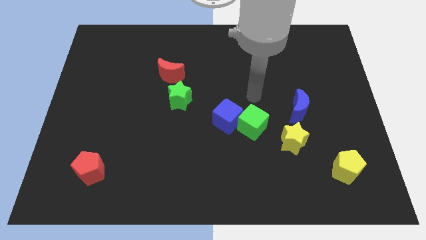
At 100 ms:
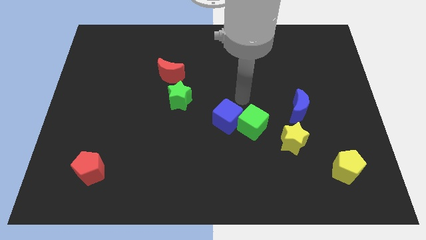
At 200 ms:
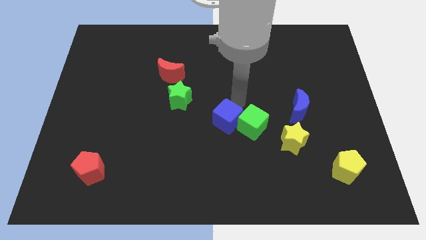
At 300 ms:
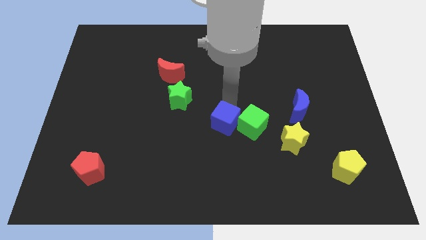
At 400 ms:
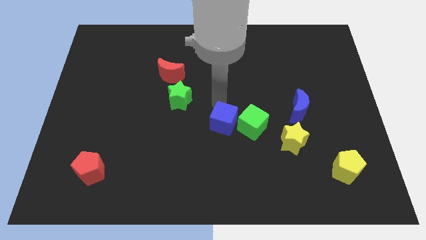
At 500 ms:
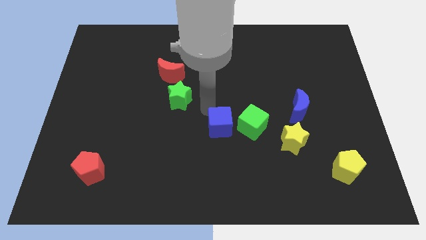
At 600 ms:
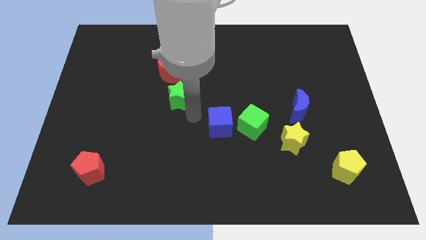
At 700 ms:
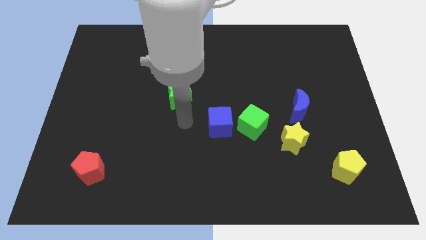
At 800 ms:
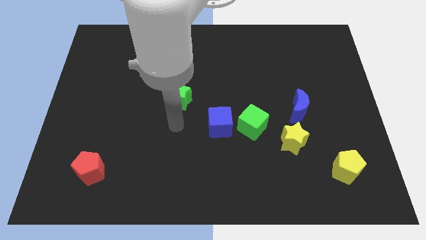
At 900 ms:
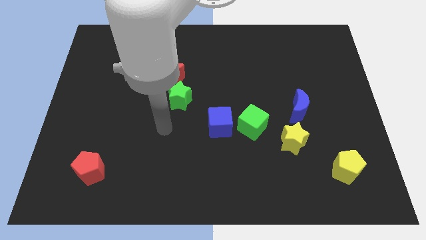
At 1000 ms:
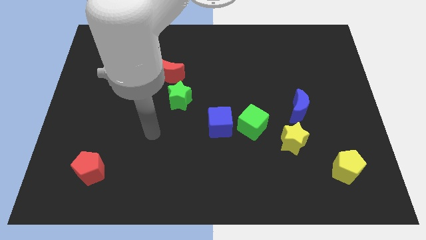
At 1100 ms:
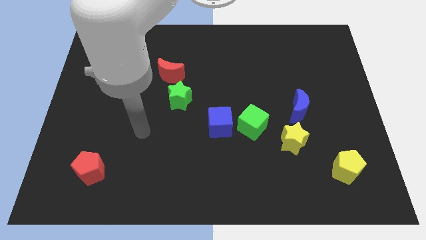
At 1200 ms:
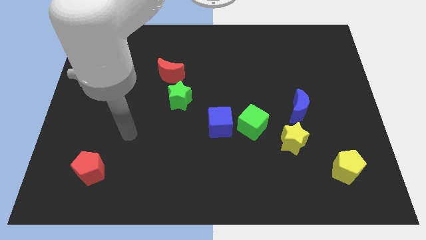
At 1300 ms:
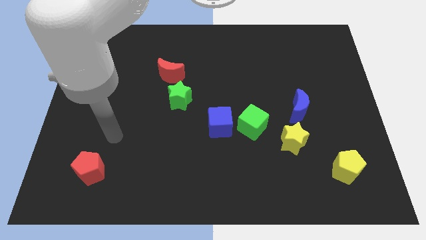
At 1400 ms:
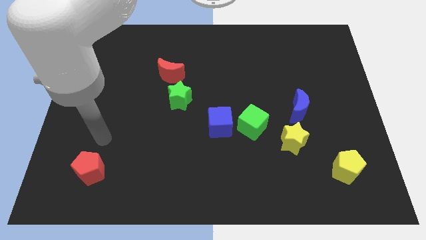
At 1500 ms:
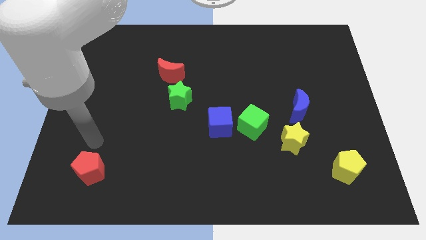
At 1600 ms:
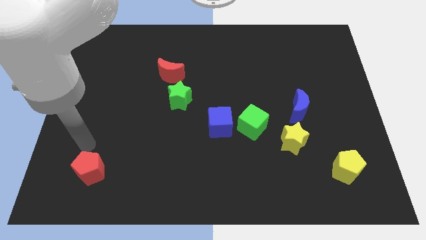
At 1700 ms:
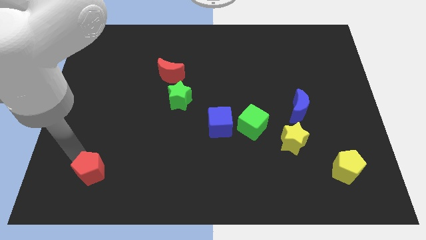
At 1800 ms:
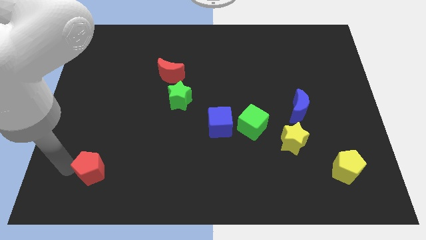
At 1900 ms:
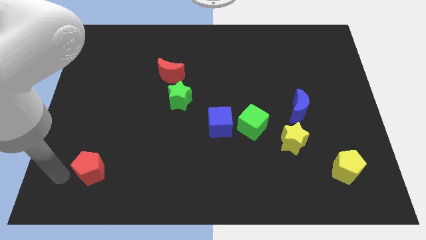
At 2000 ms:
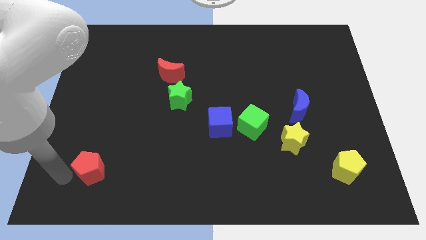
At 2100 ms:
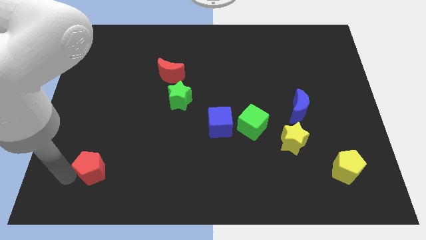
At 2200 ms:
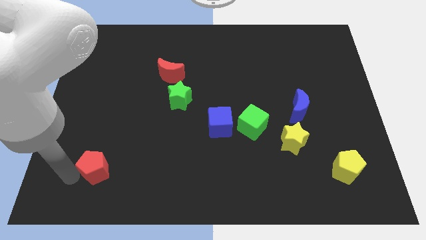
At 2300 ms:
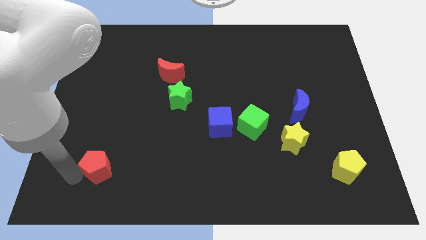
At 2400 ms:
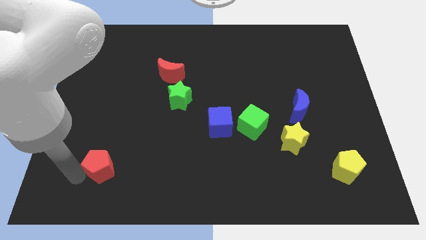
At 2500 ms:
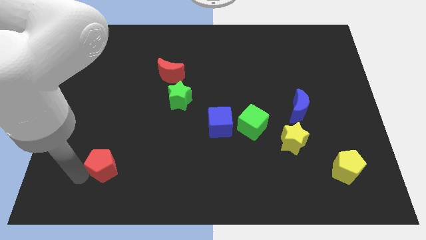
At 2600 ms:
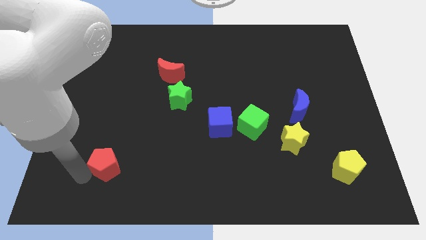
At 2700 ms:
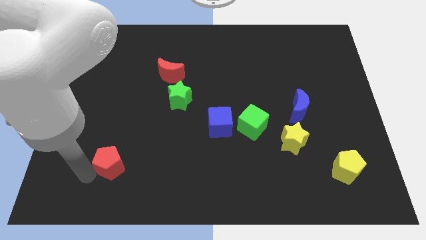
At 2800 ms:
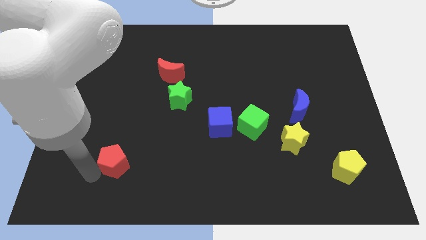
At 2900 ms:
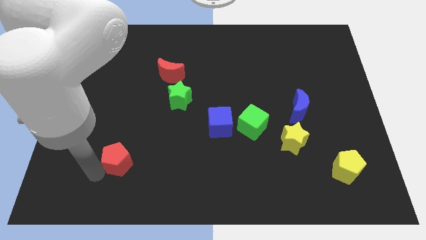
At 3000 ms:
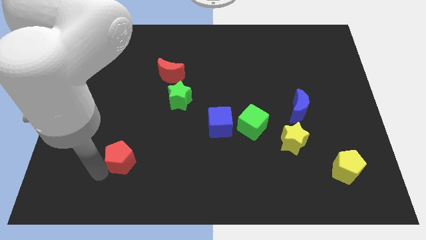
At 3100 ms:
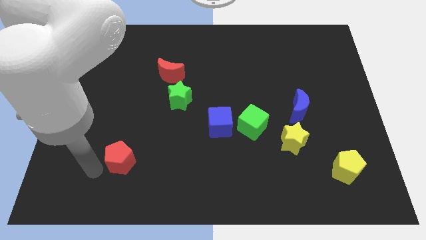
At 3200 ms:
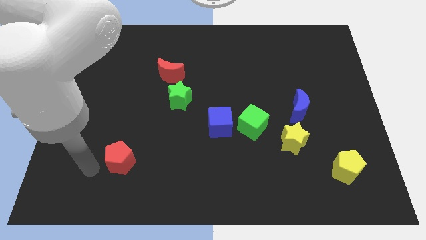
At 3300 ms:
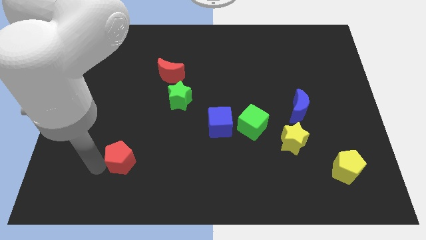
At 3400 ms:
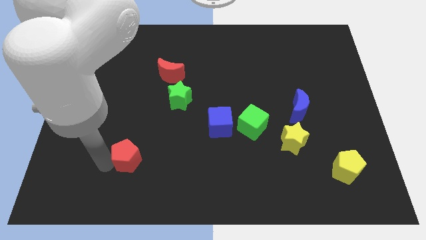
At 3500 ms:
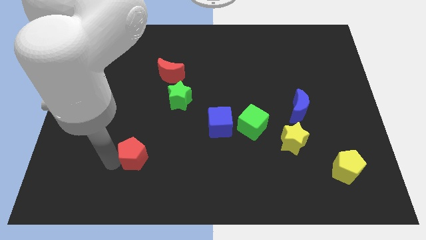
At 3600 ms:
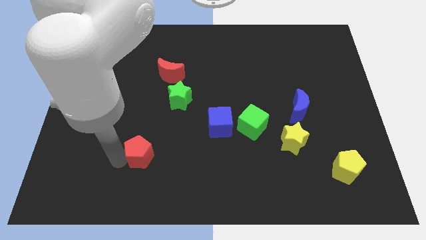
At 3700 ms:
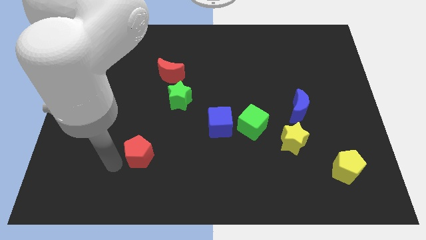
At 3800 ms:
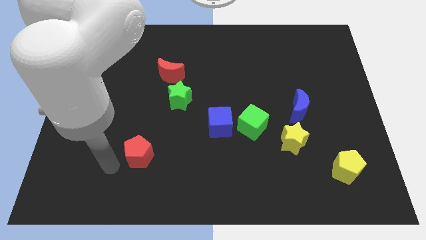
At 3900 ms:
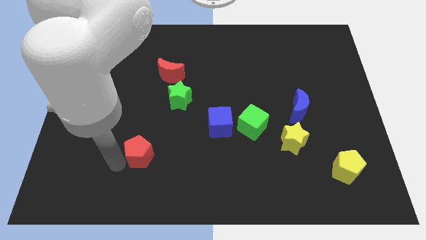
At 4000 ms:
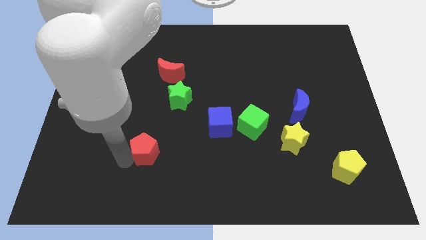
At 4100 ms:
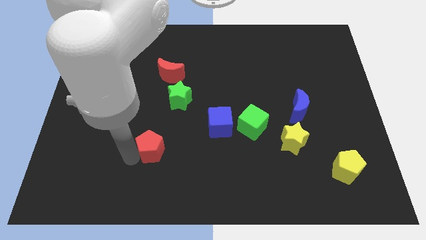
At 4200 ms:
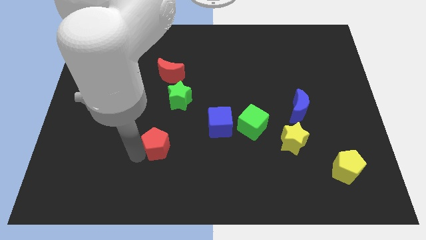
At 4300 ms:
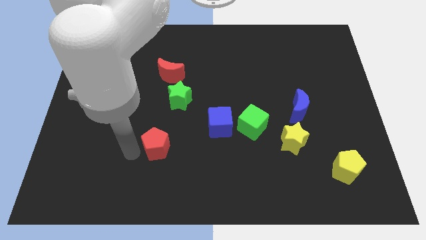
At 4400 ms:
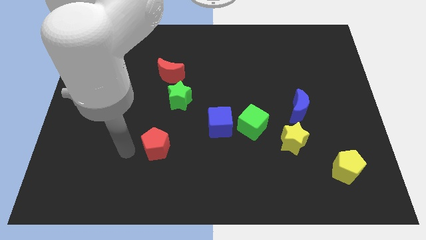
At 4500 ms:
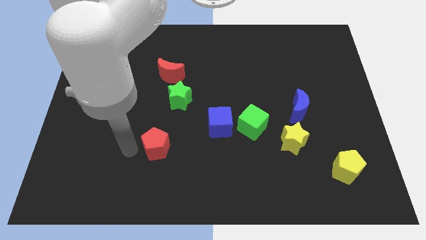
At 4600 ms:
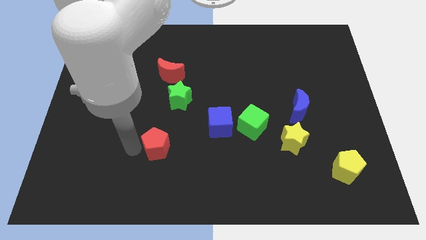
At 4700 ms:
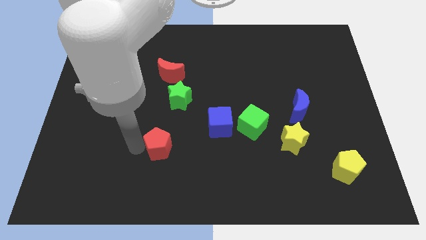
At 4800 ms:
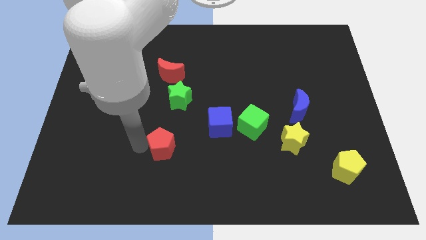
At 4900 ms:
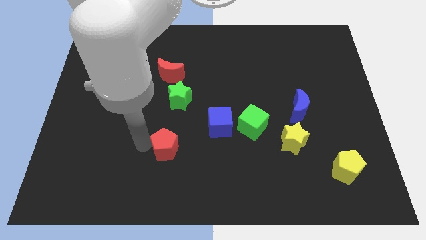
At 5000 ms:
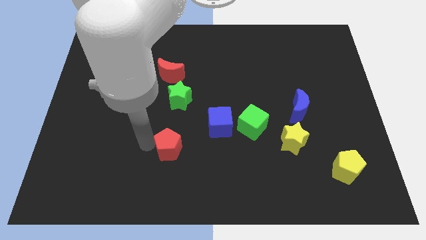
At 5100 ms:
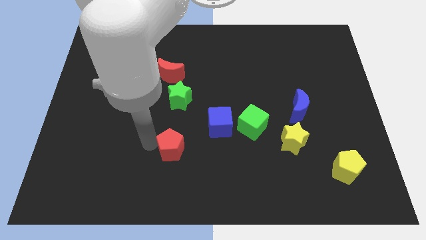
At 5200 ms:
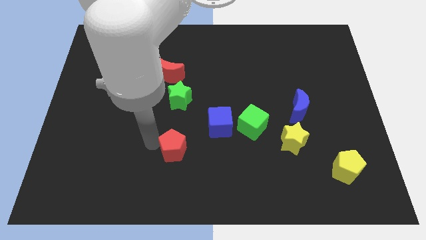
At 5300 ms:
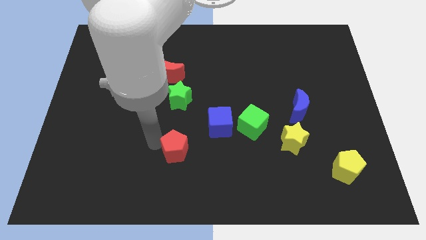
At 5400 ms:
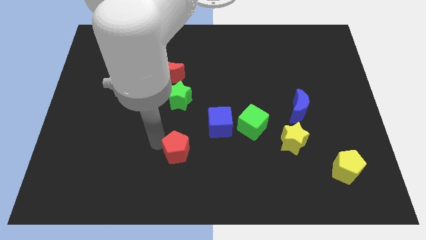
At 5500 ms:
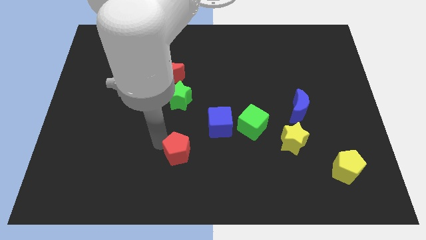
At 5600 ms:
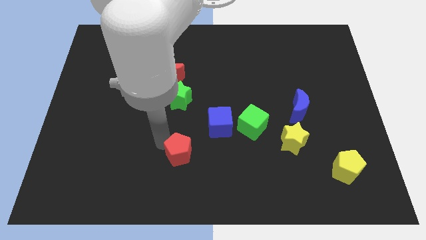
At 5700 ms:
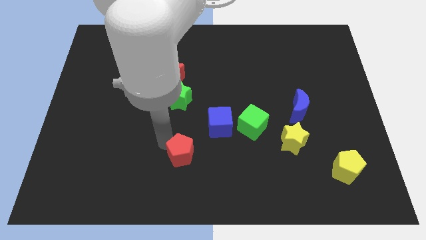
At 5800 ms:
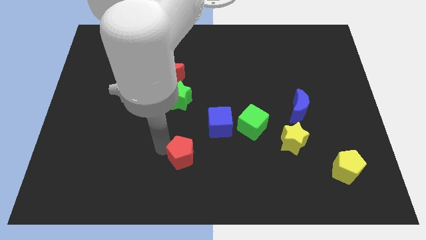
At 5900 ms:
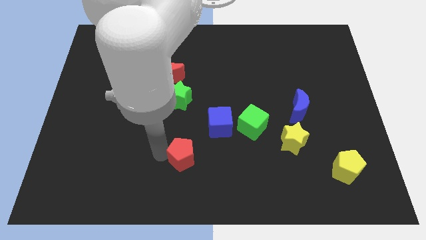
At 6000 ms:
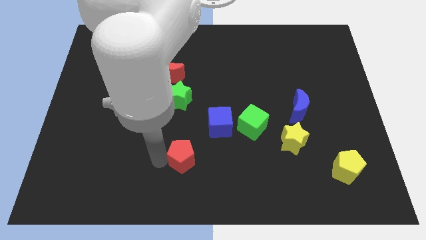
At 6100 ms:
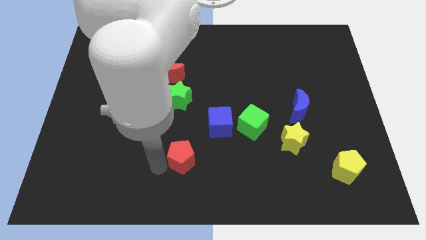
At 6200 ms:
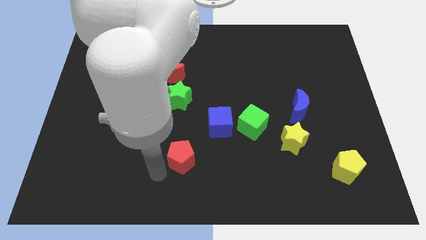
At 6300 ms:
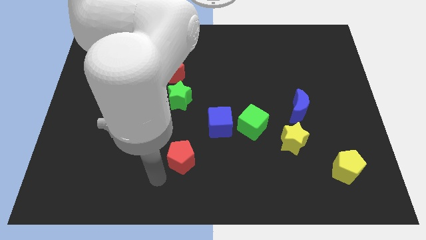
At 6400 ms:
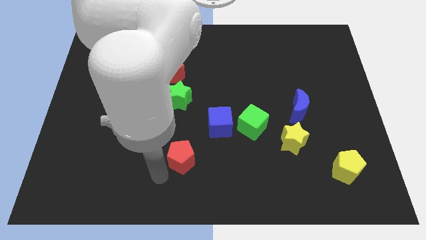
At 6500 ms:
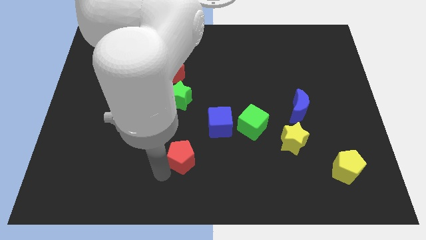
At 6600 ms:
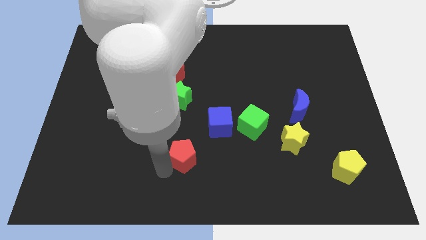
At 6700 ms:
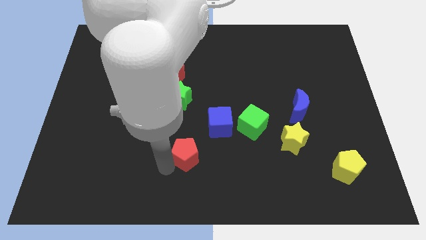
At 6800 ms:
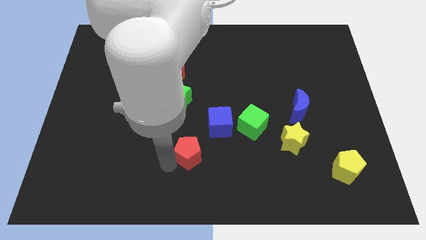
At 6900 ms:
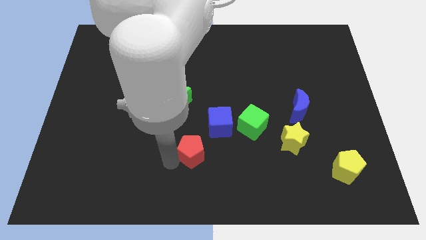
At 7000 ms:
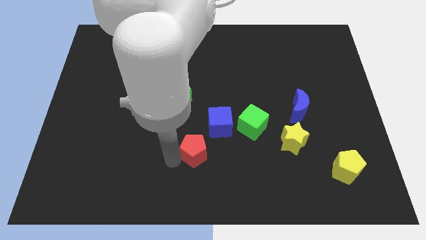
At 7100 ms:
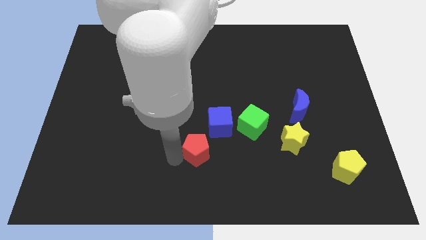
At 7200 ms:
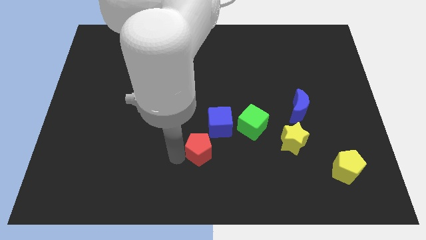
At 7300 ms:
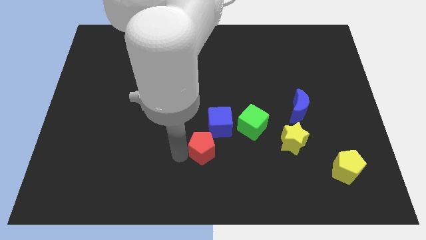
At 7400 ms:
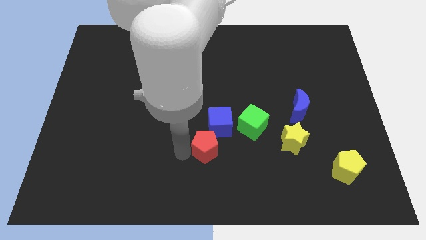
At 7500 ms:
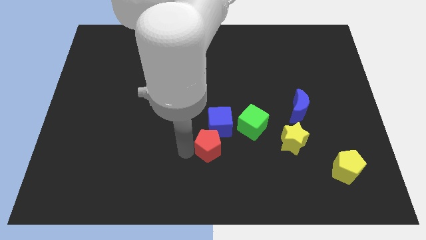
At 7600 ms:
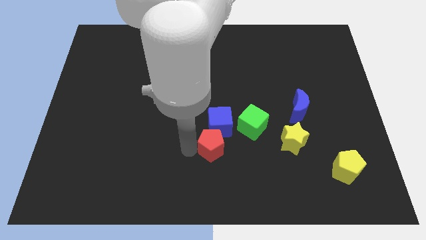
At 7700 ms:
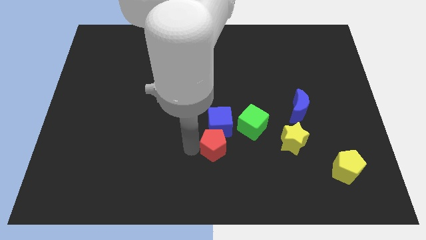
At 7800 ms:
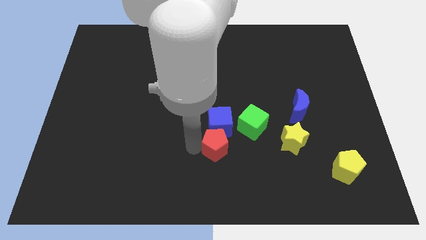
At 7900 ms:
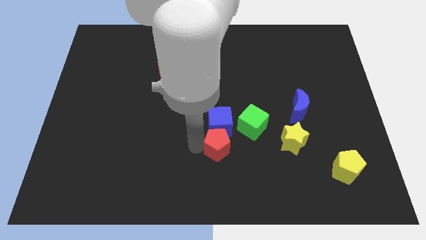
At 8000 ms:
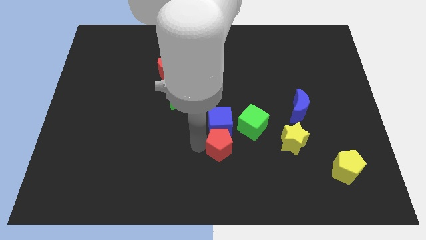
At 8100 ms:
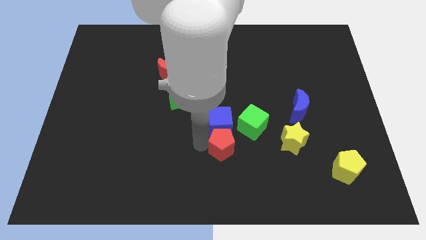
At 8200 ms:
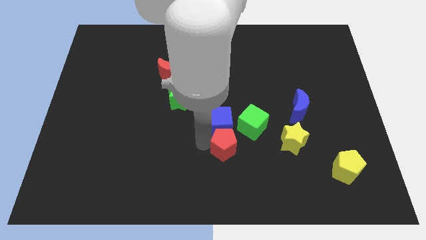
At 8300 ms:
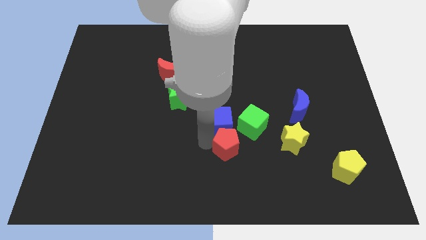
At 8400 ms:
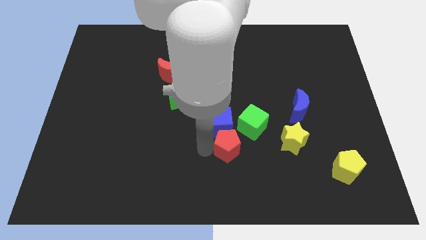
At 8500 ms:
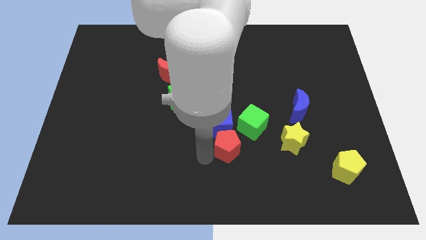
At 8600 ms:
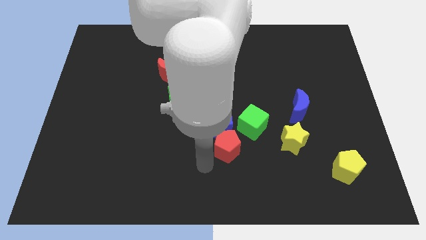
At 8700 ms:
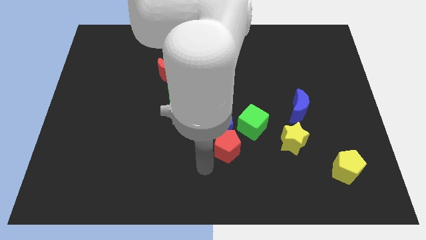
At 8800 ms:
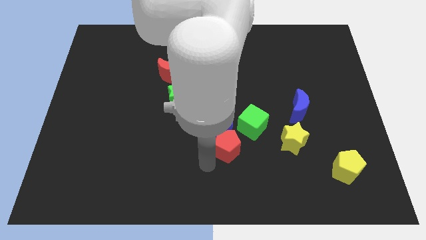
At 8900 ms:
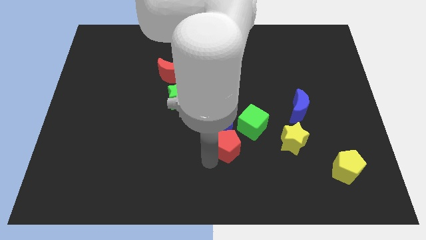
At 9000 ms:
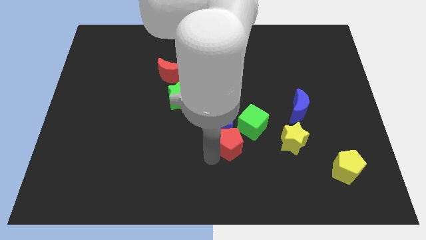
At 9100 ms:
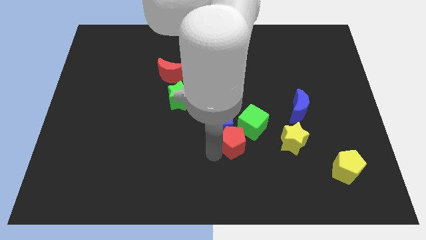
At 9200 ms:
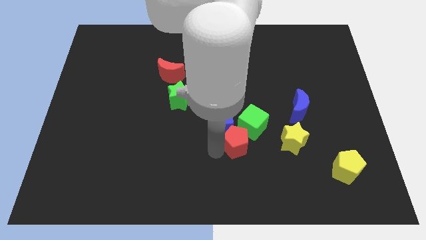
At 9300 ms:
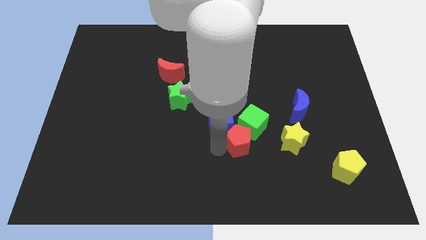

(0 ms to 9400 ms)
put the red pentagon towards the green cube
